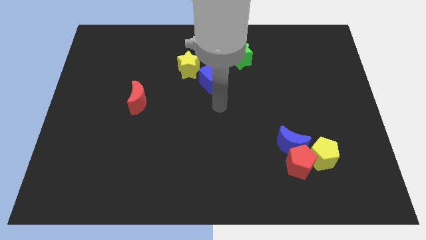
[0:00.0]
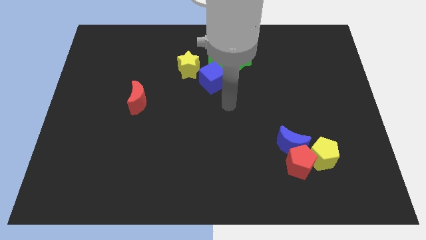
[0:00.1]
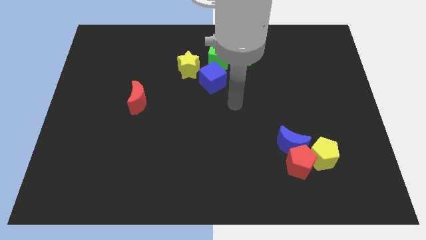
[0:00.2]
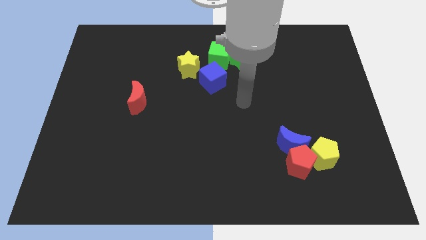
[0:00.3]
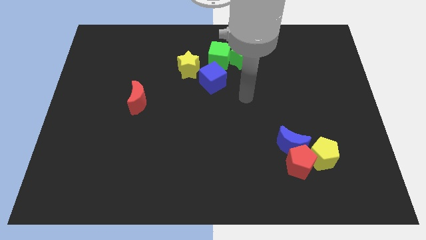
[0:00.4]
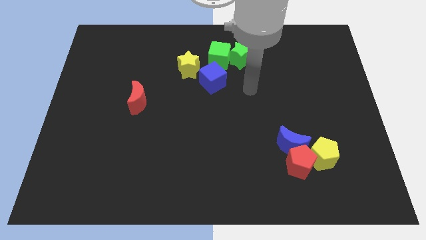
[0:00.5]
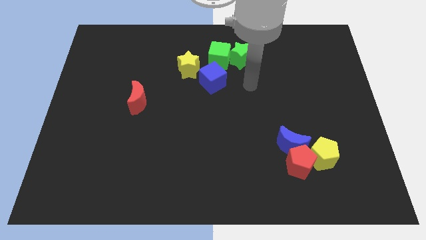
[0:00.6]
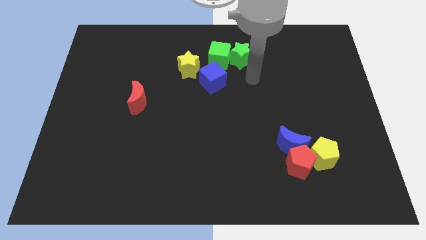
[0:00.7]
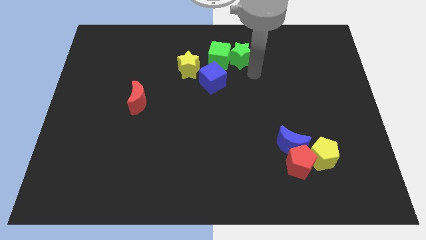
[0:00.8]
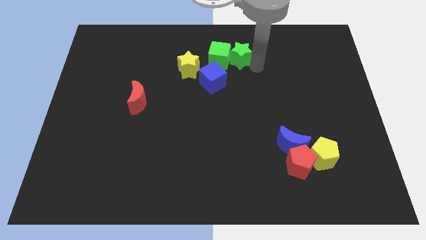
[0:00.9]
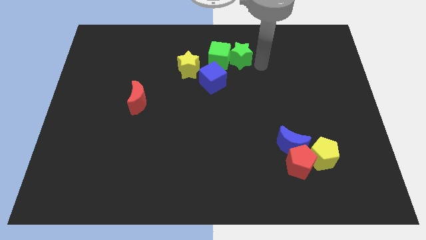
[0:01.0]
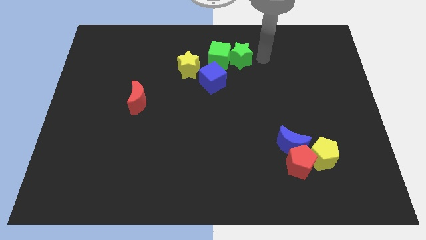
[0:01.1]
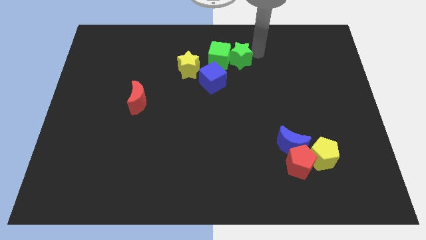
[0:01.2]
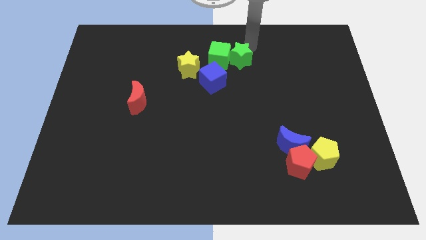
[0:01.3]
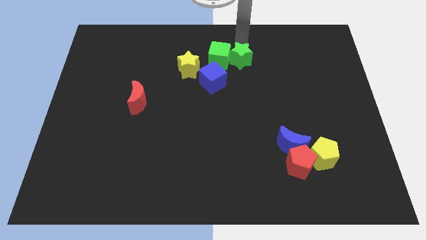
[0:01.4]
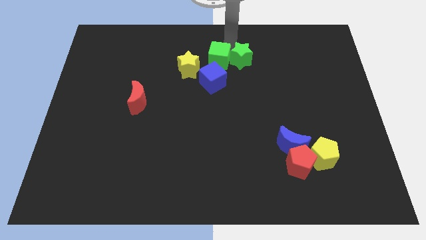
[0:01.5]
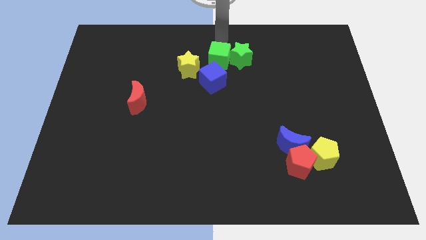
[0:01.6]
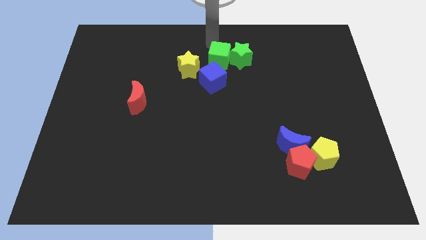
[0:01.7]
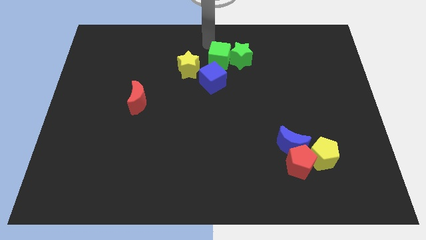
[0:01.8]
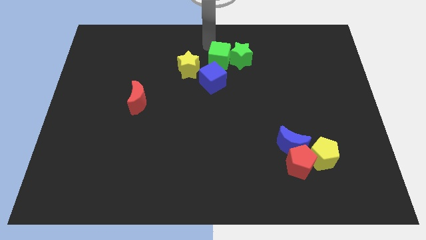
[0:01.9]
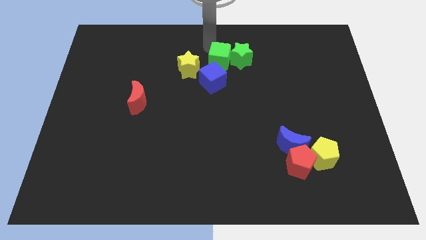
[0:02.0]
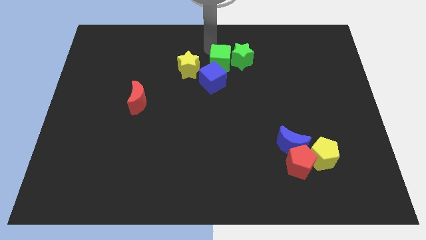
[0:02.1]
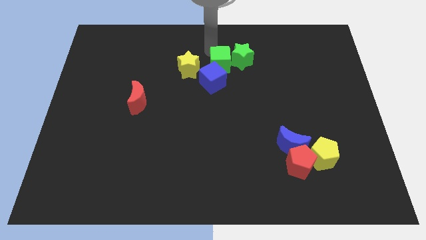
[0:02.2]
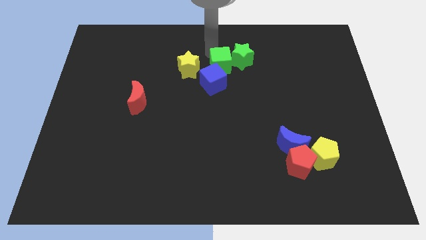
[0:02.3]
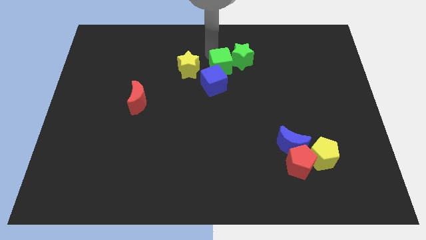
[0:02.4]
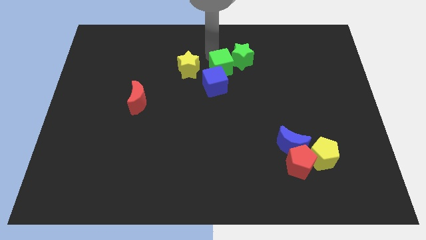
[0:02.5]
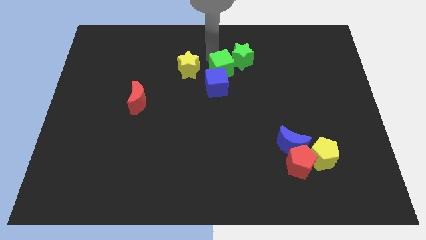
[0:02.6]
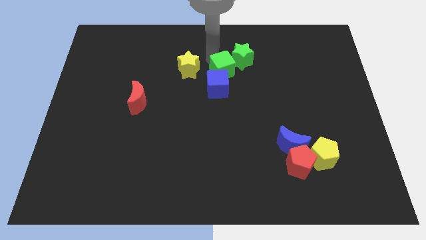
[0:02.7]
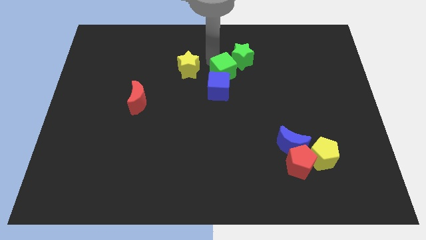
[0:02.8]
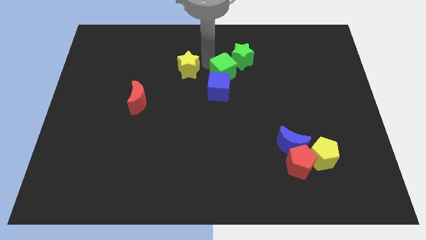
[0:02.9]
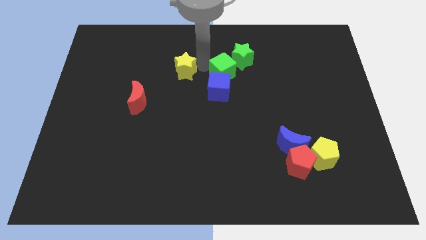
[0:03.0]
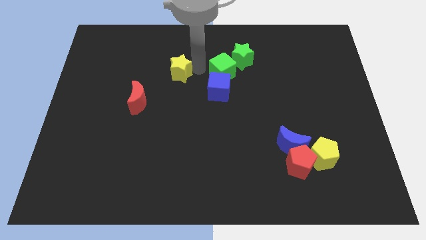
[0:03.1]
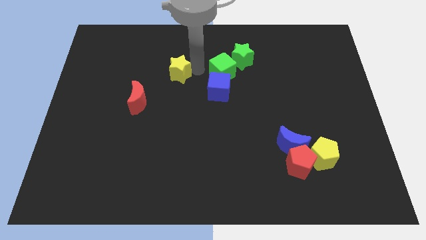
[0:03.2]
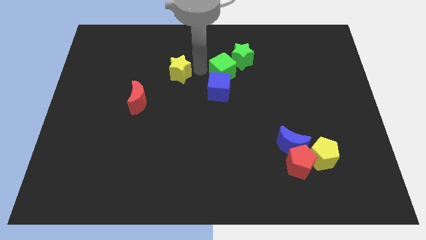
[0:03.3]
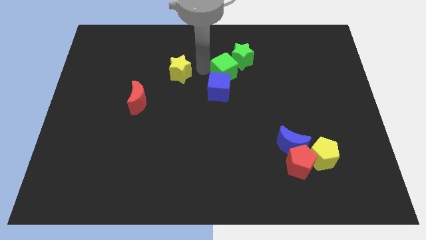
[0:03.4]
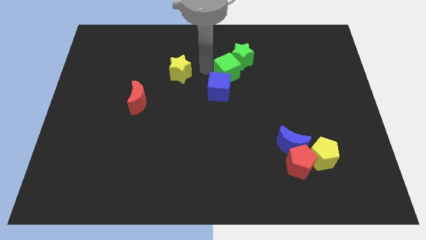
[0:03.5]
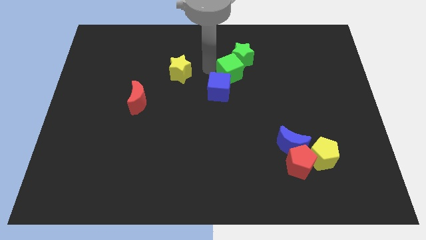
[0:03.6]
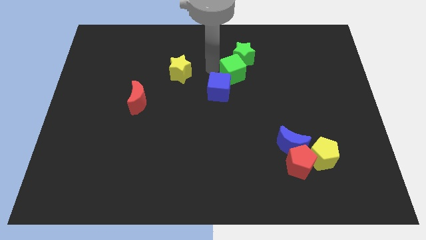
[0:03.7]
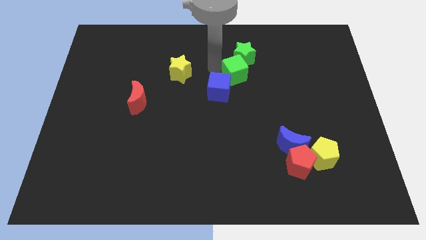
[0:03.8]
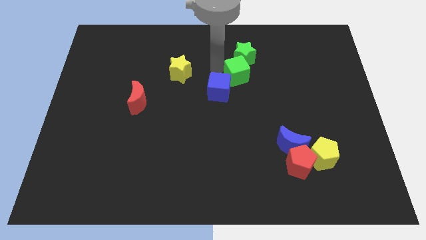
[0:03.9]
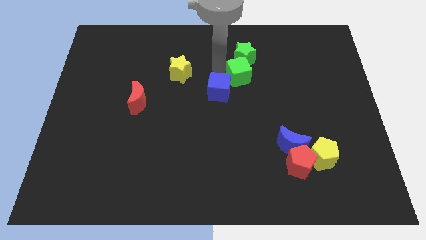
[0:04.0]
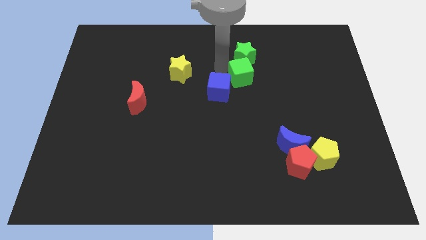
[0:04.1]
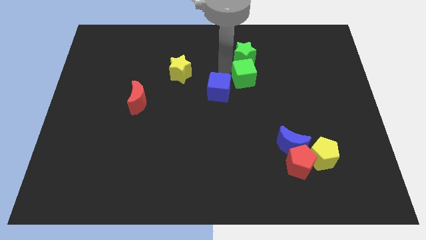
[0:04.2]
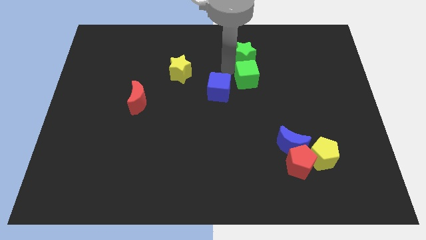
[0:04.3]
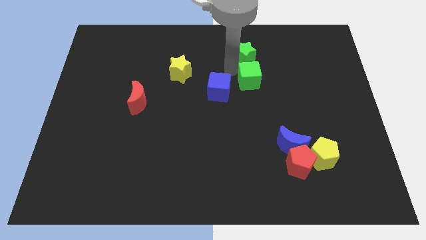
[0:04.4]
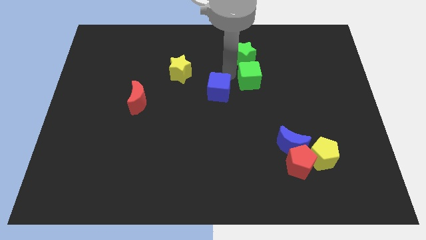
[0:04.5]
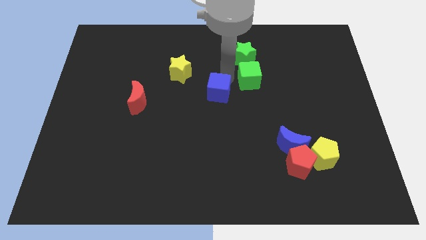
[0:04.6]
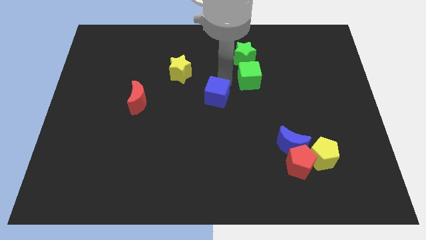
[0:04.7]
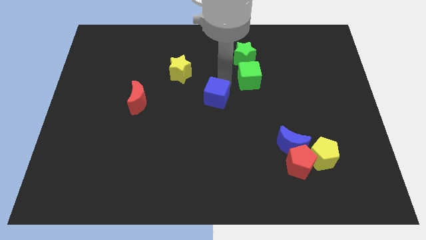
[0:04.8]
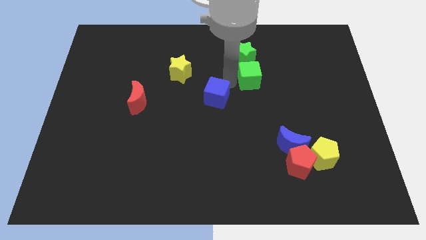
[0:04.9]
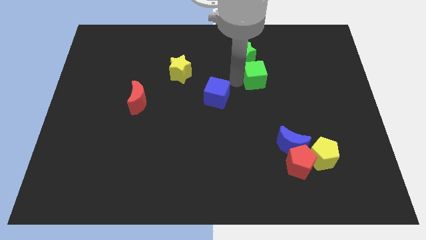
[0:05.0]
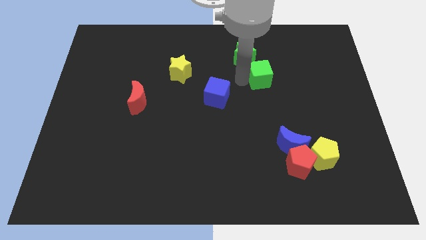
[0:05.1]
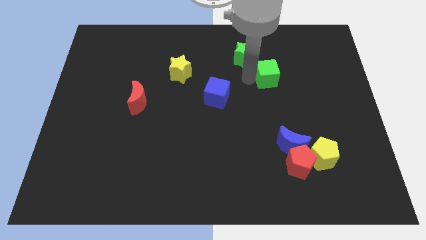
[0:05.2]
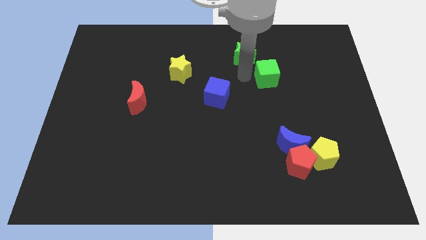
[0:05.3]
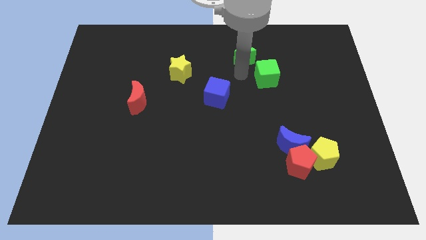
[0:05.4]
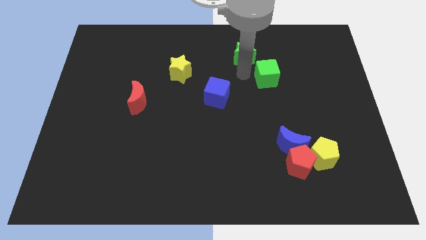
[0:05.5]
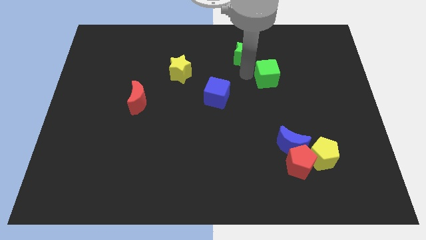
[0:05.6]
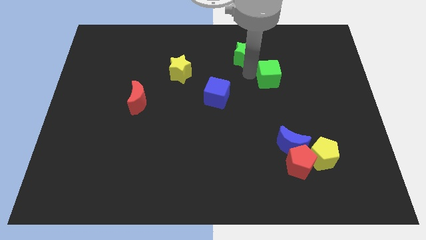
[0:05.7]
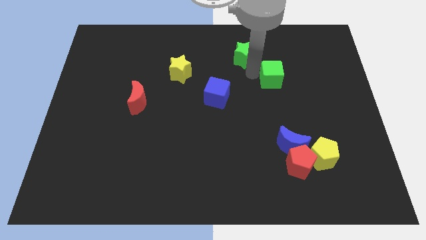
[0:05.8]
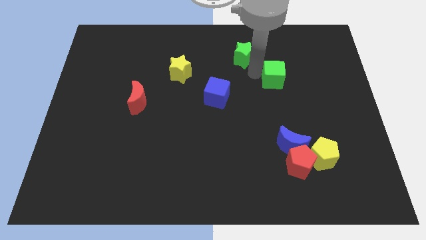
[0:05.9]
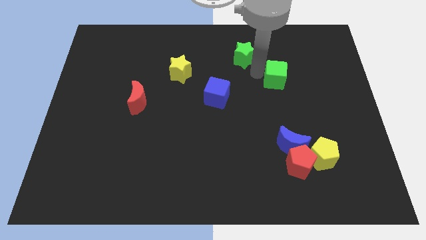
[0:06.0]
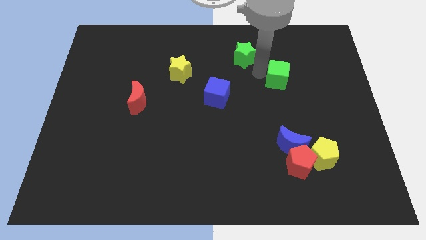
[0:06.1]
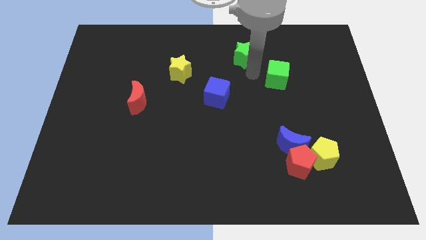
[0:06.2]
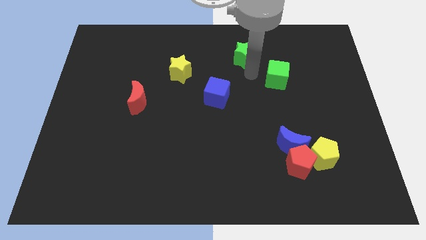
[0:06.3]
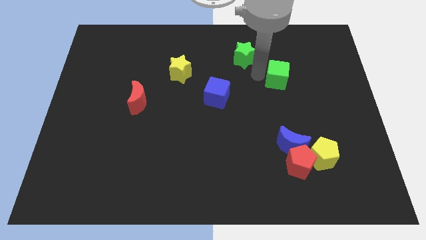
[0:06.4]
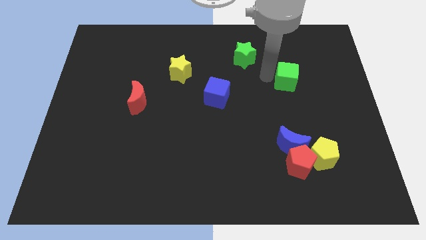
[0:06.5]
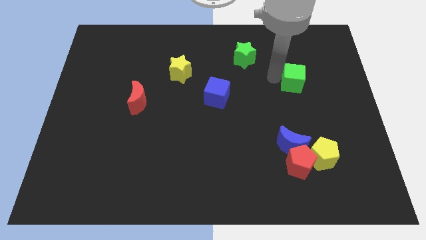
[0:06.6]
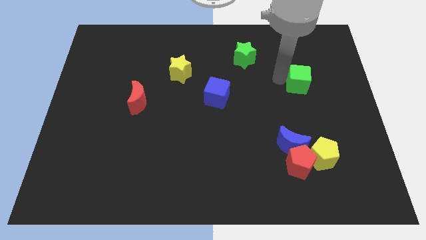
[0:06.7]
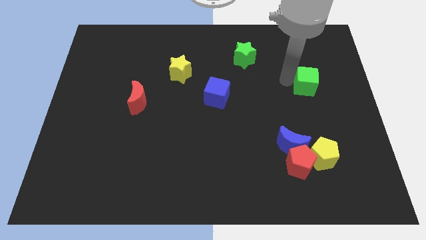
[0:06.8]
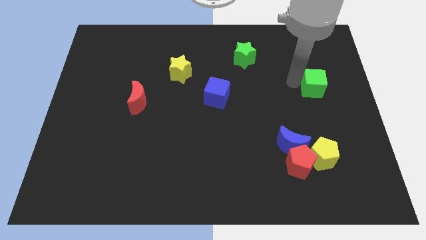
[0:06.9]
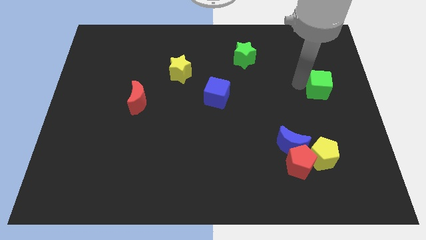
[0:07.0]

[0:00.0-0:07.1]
push the green cube to the right side
